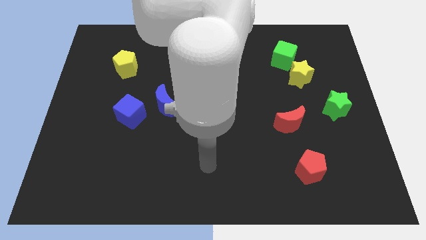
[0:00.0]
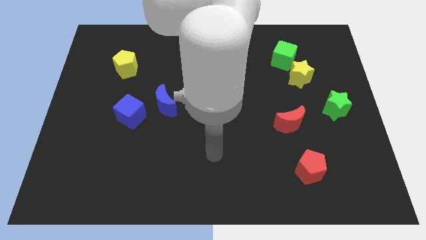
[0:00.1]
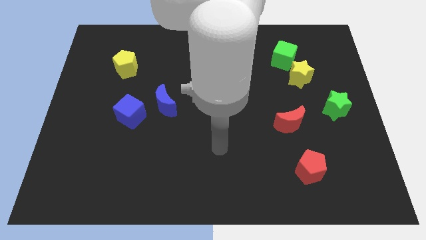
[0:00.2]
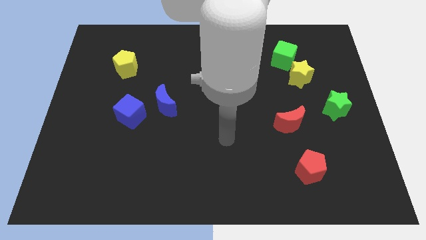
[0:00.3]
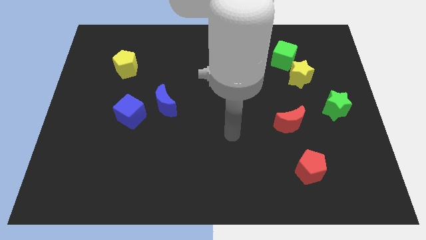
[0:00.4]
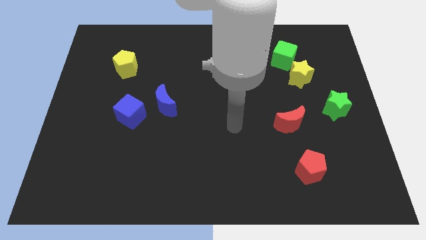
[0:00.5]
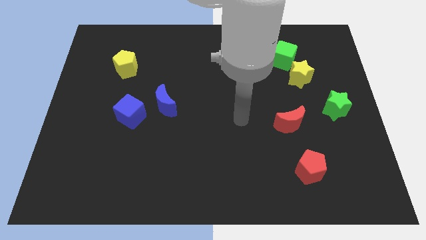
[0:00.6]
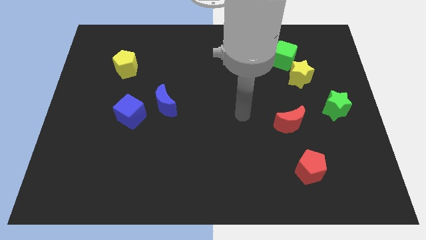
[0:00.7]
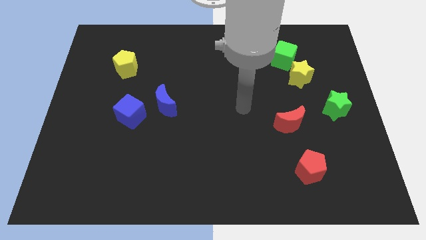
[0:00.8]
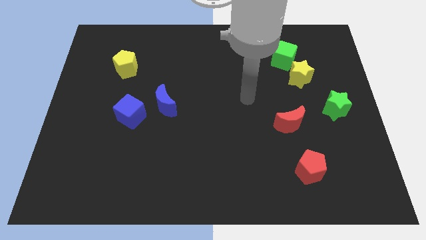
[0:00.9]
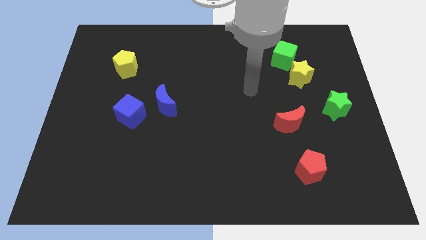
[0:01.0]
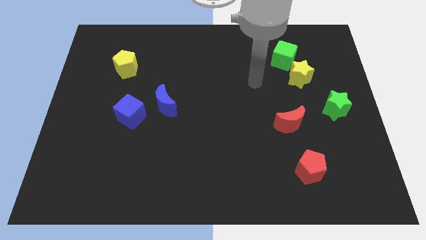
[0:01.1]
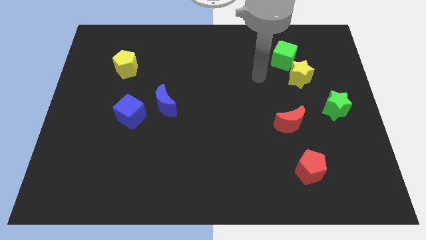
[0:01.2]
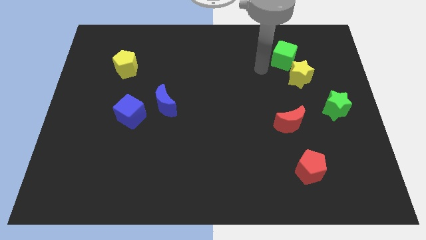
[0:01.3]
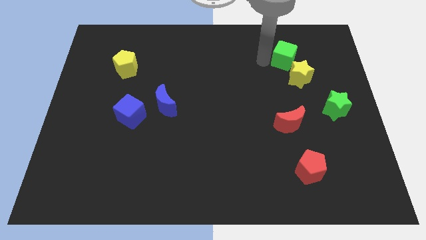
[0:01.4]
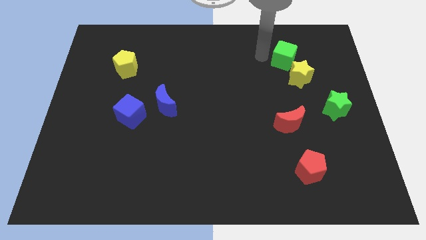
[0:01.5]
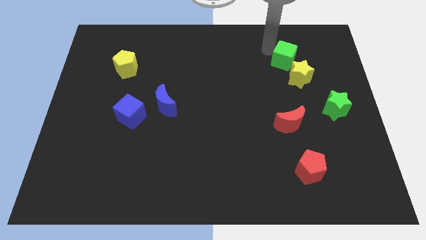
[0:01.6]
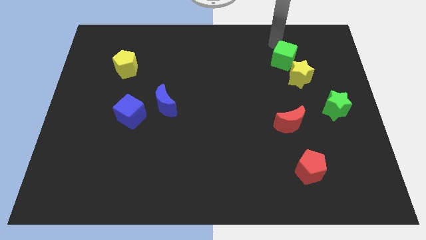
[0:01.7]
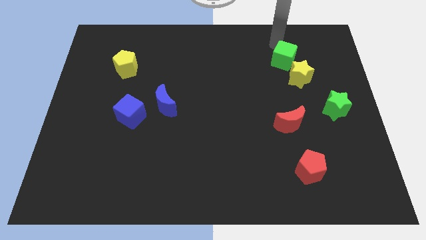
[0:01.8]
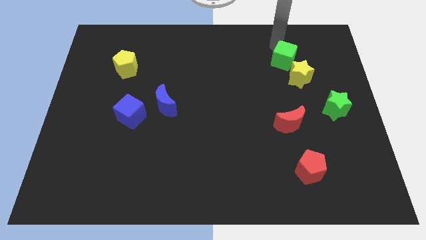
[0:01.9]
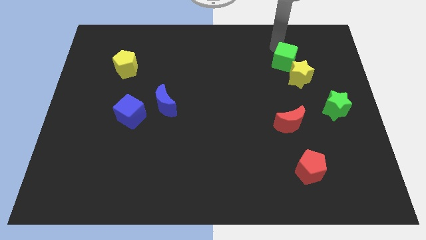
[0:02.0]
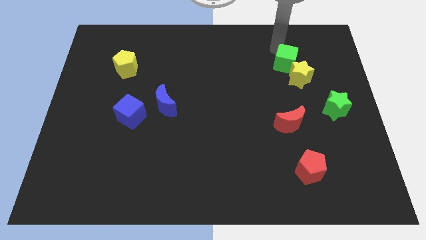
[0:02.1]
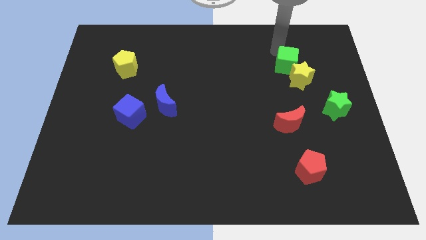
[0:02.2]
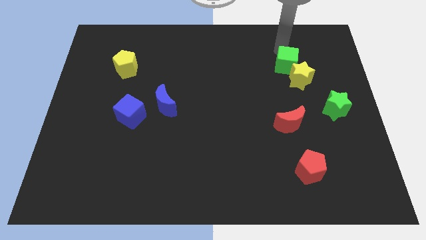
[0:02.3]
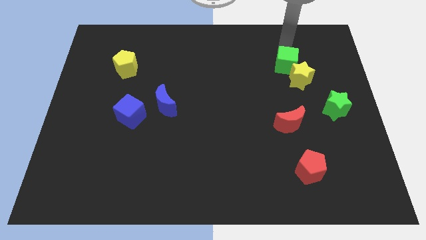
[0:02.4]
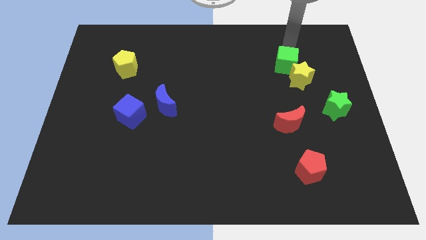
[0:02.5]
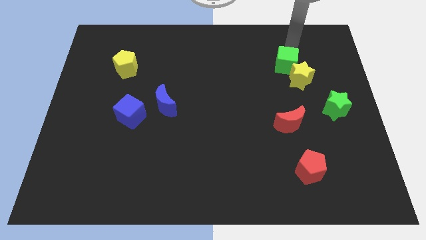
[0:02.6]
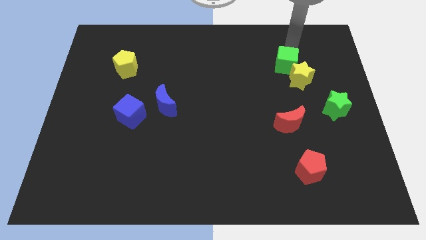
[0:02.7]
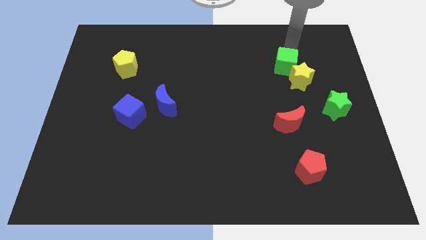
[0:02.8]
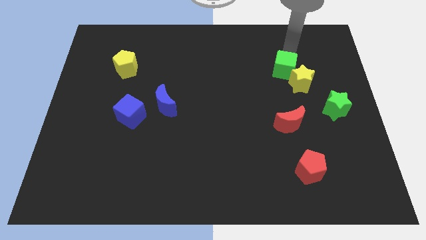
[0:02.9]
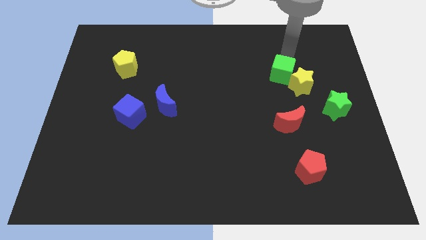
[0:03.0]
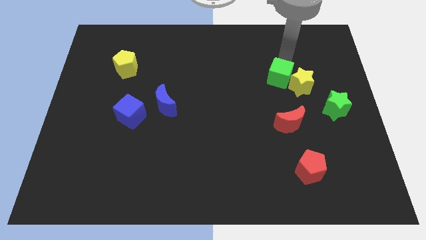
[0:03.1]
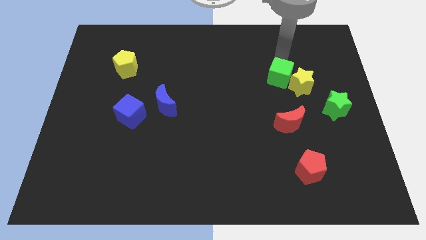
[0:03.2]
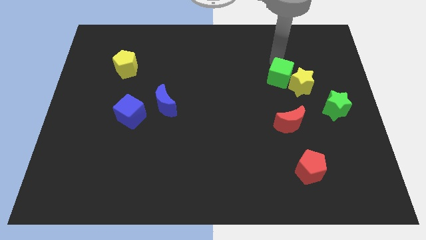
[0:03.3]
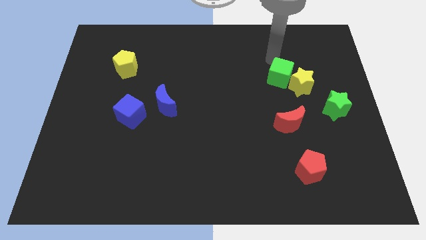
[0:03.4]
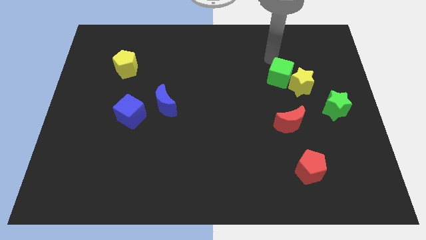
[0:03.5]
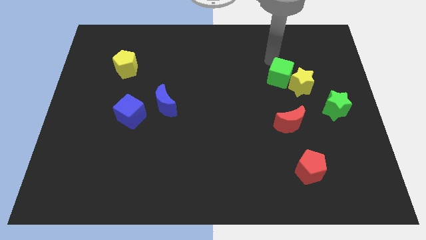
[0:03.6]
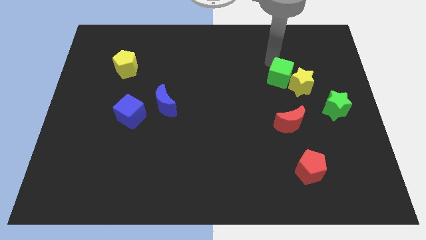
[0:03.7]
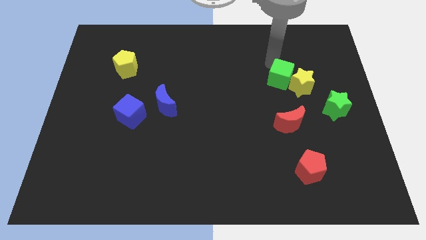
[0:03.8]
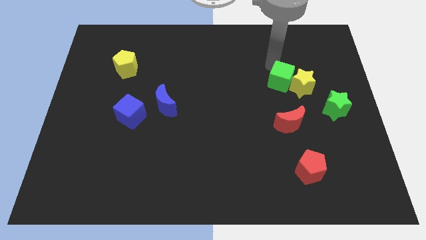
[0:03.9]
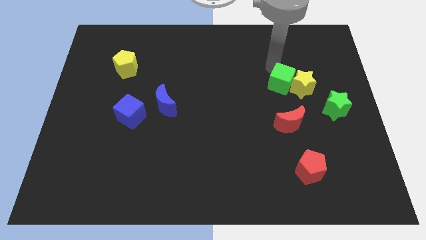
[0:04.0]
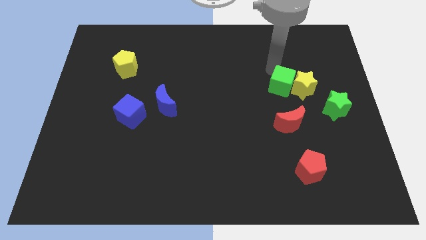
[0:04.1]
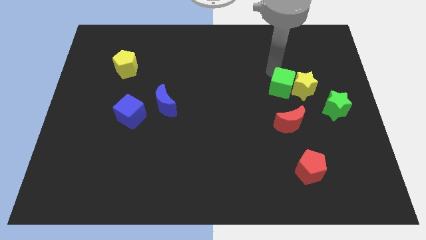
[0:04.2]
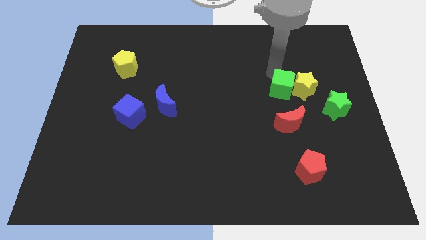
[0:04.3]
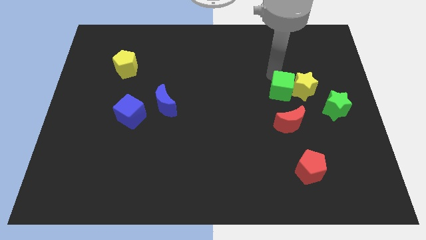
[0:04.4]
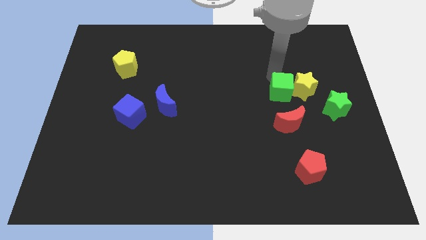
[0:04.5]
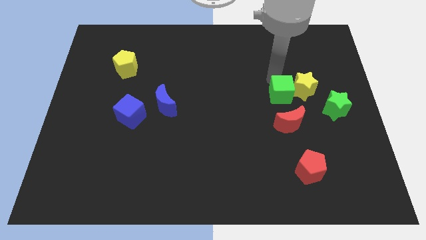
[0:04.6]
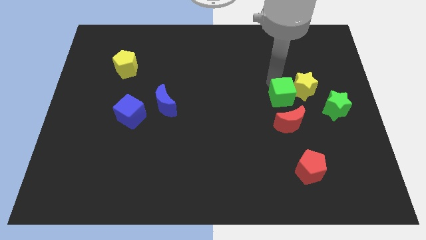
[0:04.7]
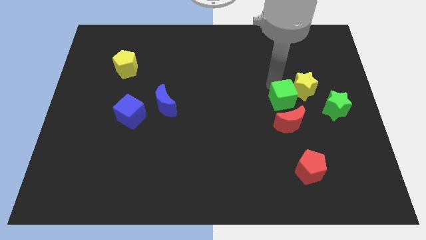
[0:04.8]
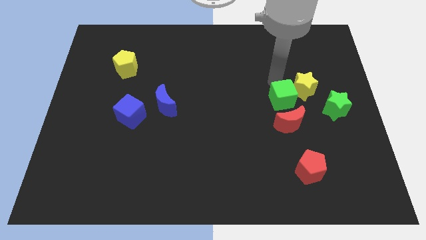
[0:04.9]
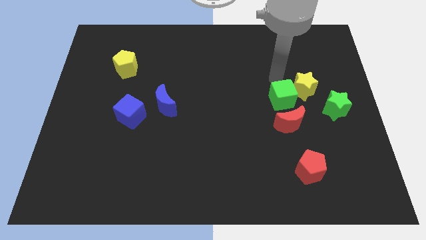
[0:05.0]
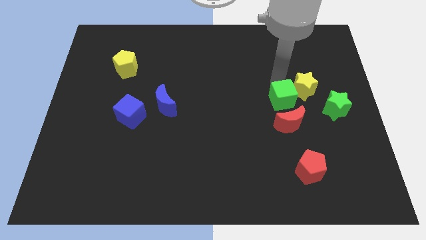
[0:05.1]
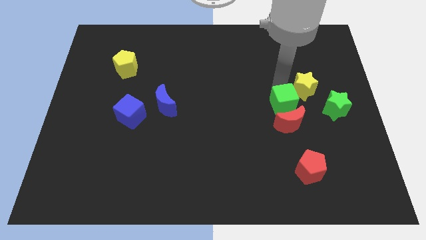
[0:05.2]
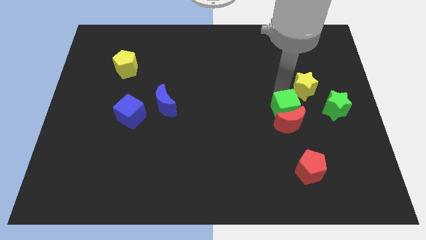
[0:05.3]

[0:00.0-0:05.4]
slide the green cube to the red moon
